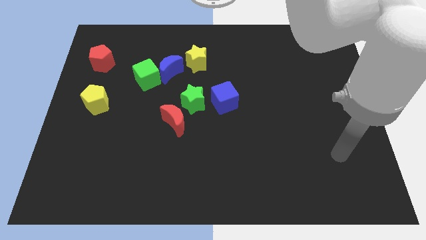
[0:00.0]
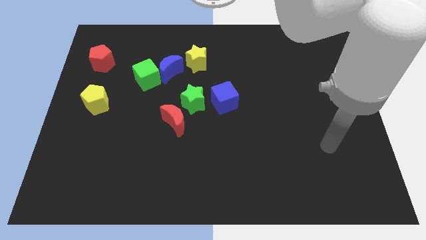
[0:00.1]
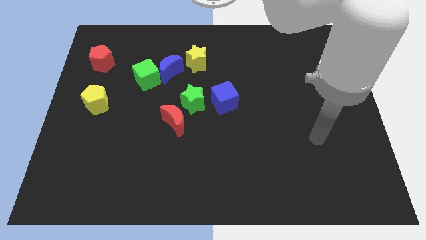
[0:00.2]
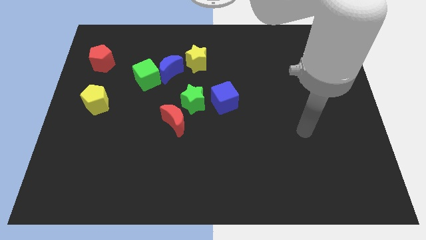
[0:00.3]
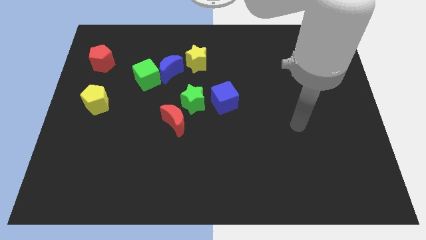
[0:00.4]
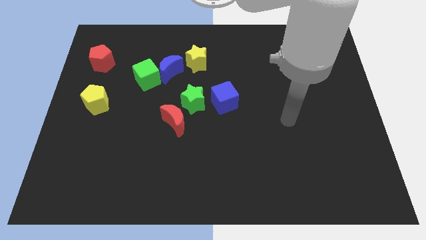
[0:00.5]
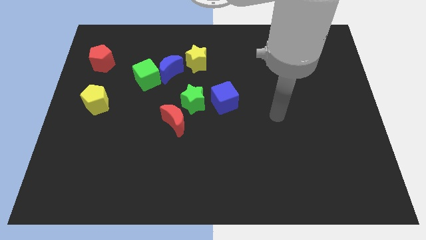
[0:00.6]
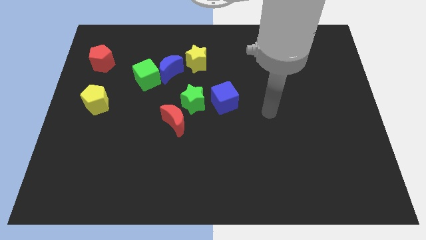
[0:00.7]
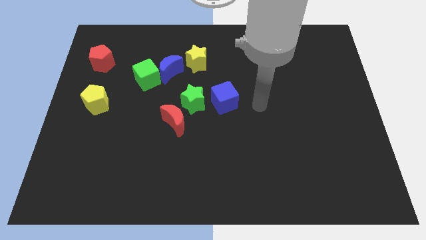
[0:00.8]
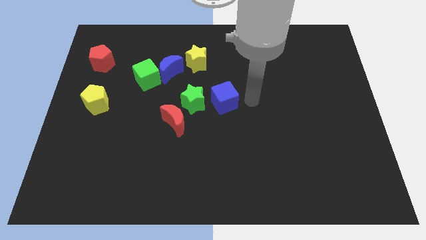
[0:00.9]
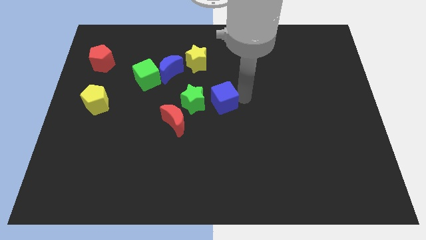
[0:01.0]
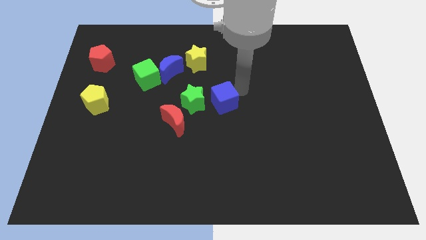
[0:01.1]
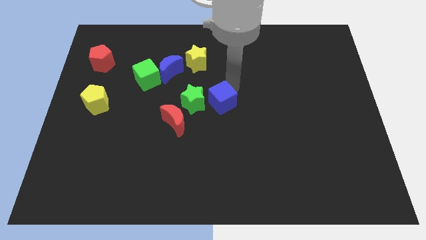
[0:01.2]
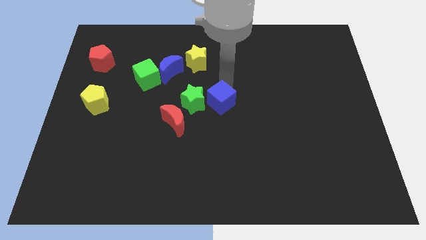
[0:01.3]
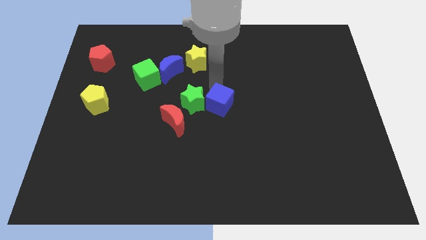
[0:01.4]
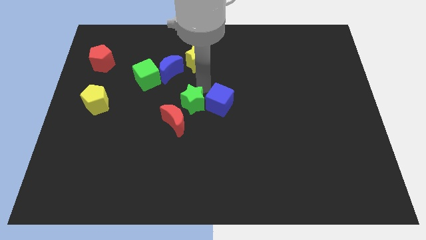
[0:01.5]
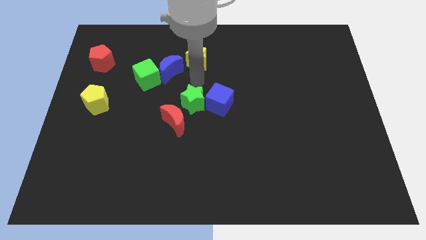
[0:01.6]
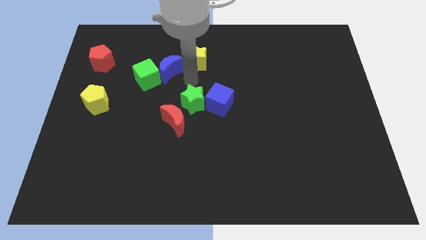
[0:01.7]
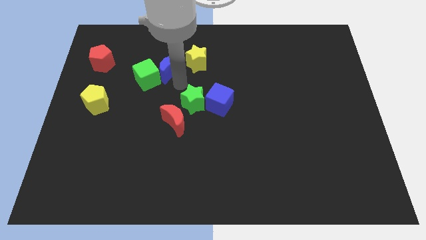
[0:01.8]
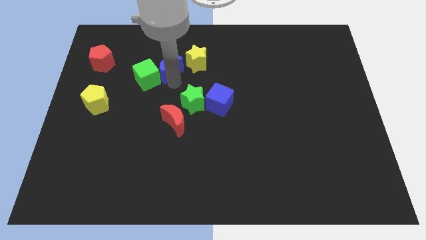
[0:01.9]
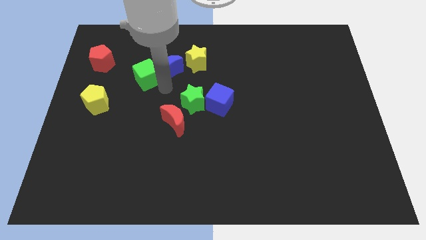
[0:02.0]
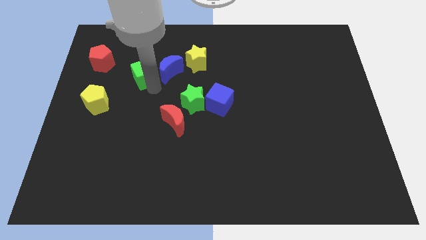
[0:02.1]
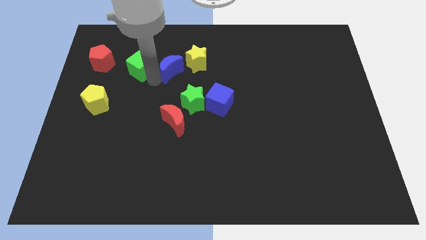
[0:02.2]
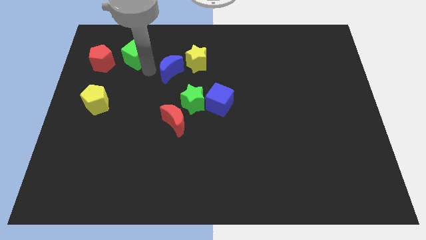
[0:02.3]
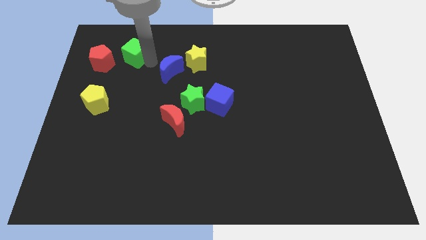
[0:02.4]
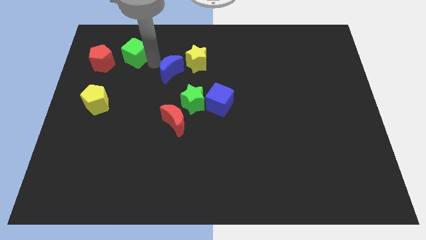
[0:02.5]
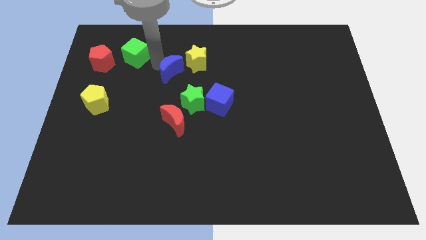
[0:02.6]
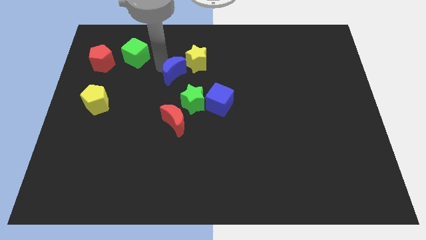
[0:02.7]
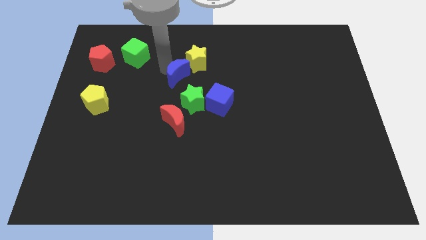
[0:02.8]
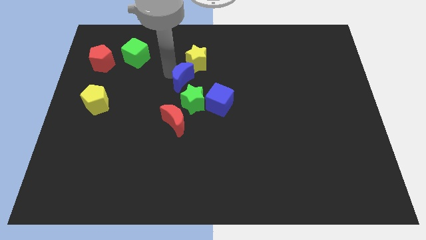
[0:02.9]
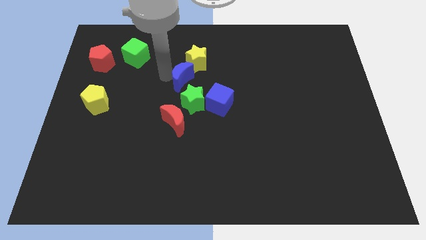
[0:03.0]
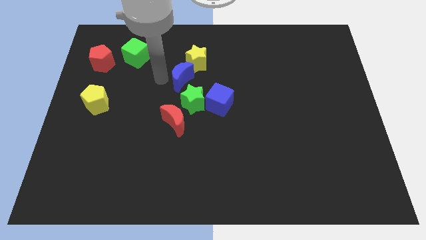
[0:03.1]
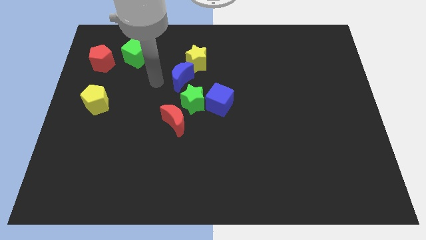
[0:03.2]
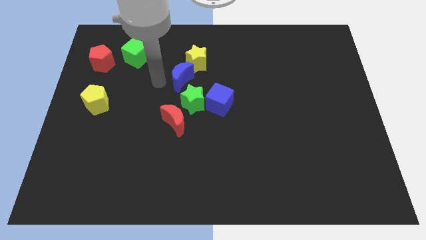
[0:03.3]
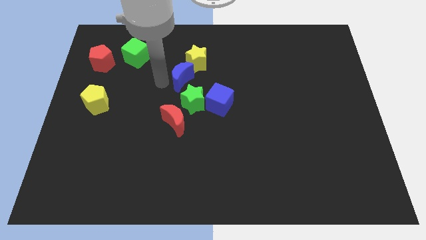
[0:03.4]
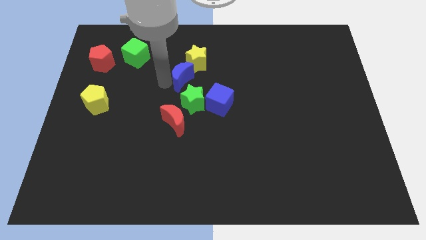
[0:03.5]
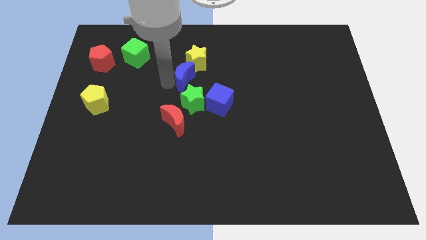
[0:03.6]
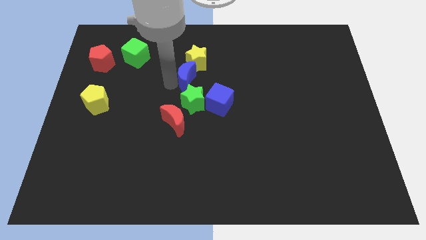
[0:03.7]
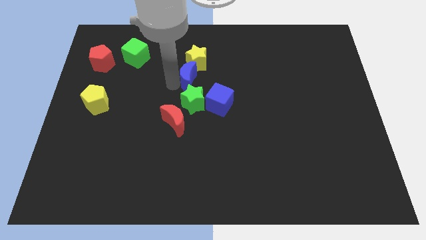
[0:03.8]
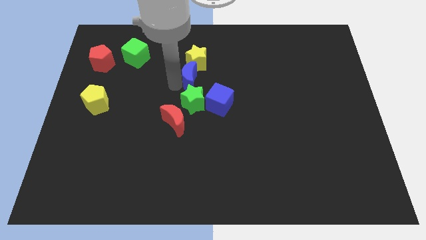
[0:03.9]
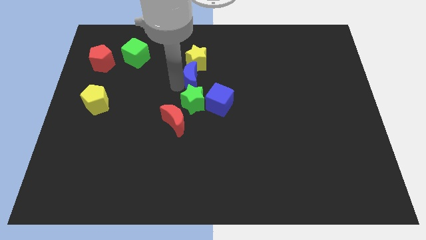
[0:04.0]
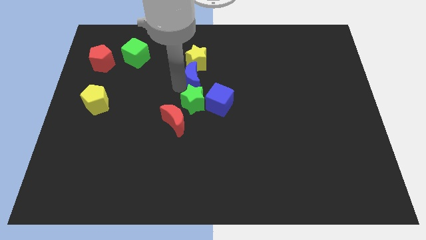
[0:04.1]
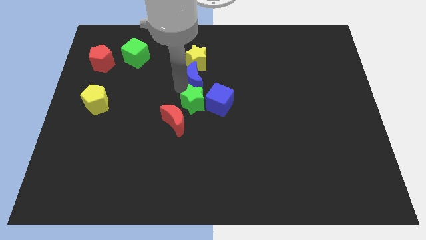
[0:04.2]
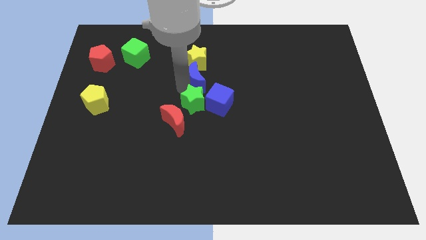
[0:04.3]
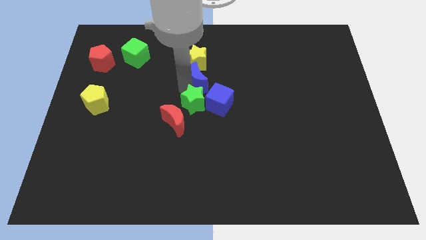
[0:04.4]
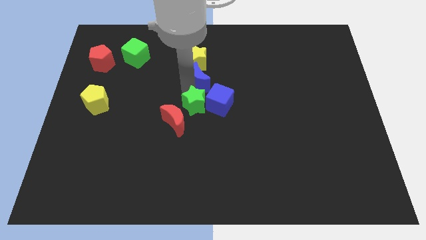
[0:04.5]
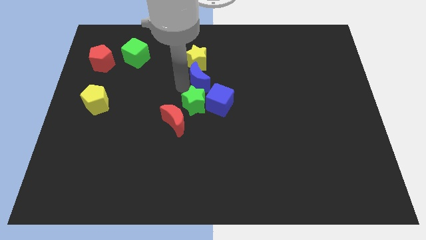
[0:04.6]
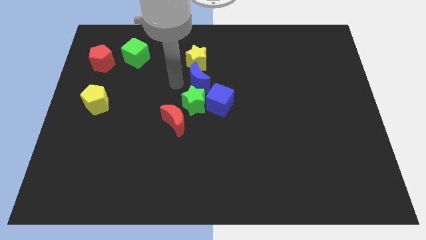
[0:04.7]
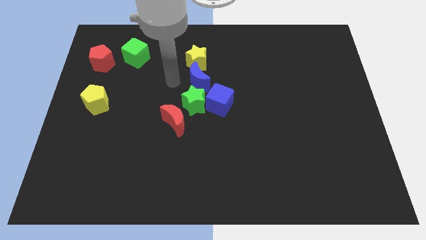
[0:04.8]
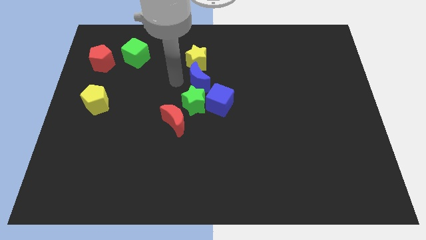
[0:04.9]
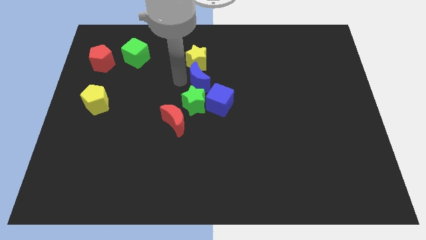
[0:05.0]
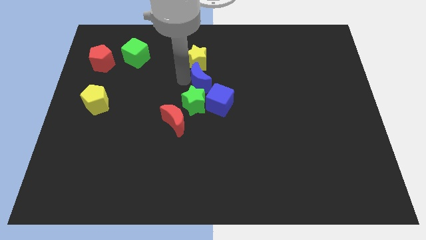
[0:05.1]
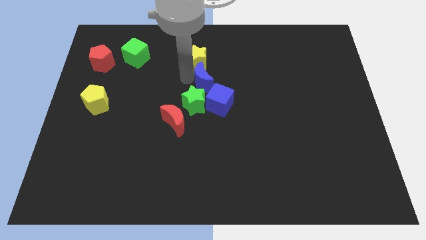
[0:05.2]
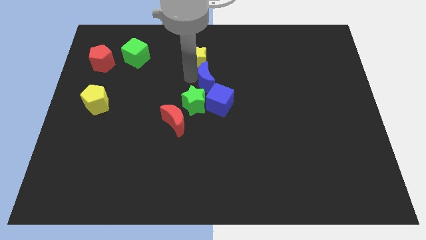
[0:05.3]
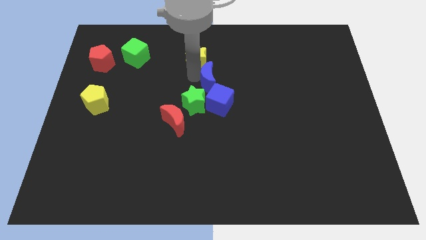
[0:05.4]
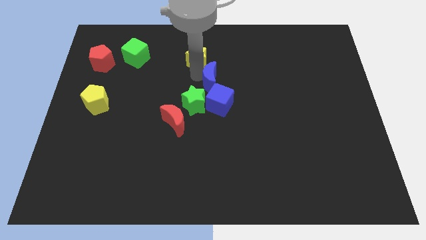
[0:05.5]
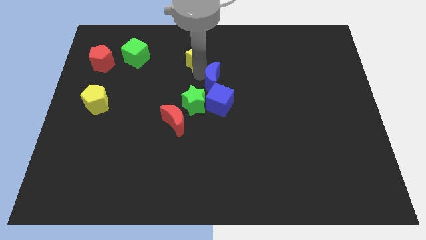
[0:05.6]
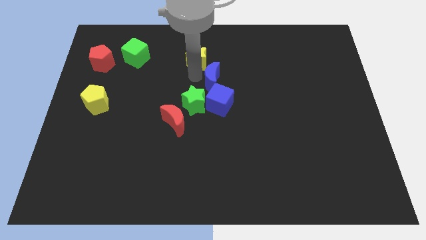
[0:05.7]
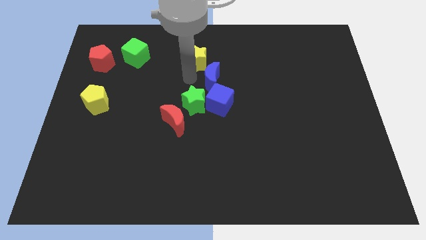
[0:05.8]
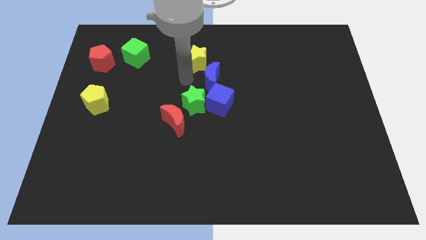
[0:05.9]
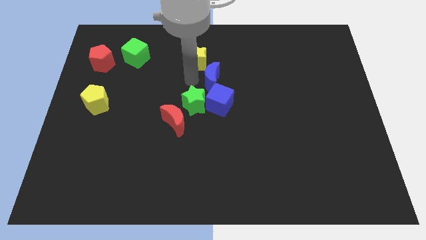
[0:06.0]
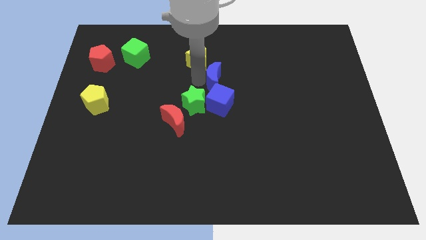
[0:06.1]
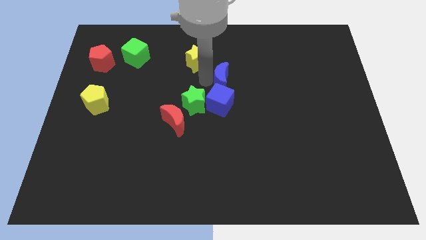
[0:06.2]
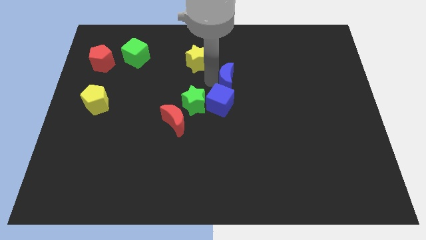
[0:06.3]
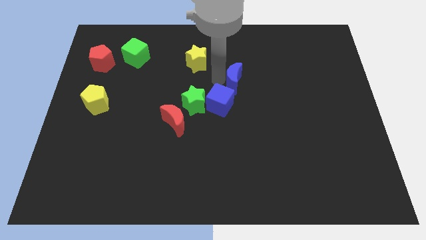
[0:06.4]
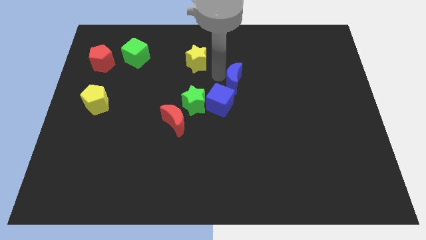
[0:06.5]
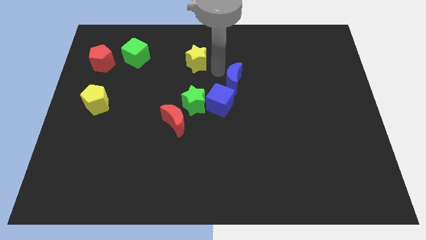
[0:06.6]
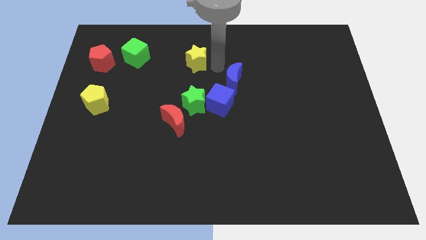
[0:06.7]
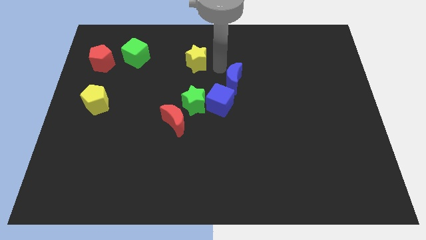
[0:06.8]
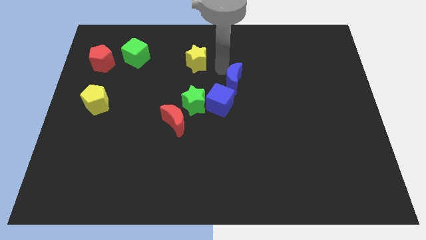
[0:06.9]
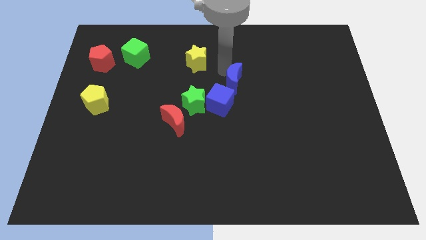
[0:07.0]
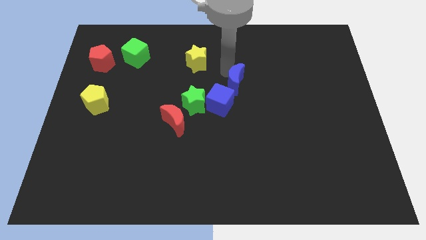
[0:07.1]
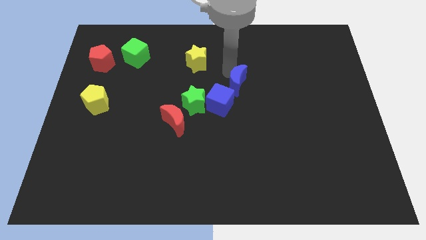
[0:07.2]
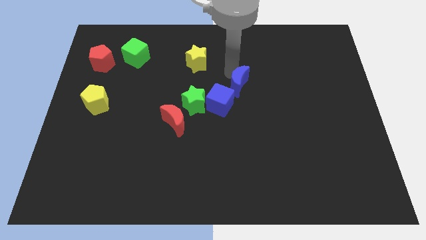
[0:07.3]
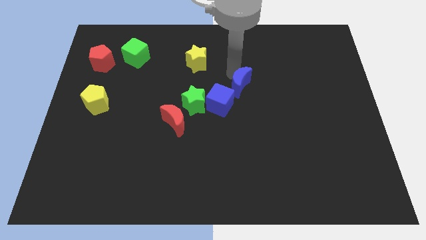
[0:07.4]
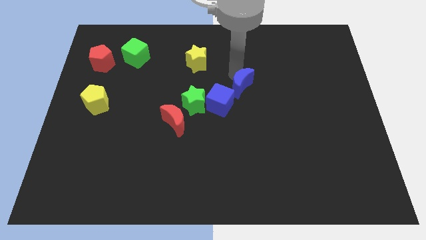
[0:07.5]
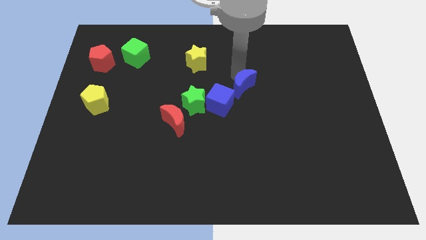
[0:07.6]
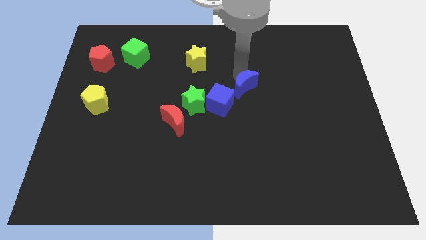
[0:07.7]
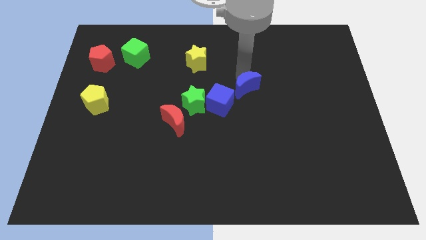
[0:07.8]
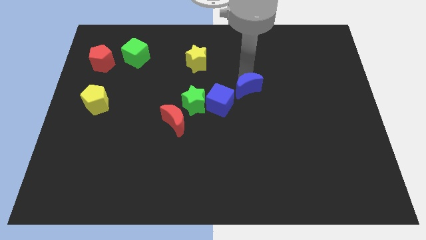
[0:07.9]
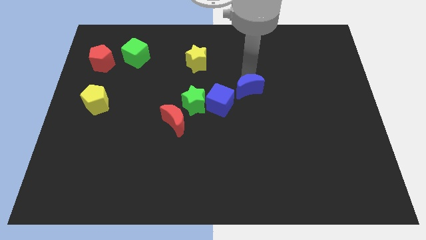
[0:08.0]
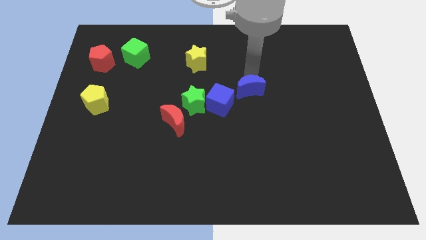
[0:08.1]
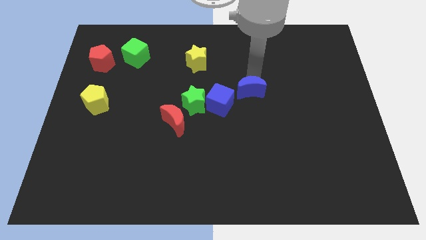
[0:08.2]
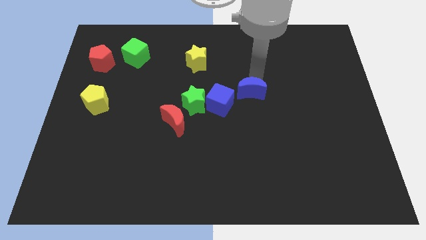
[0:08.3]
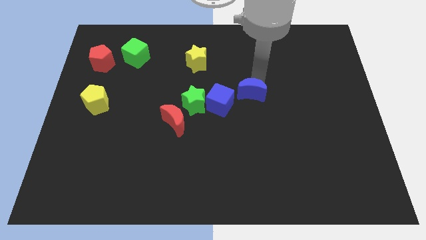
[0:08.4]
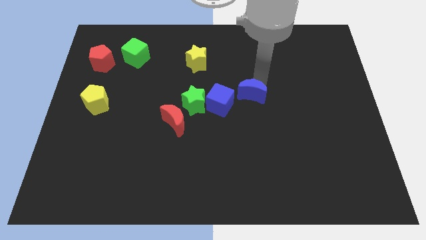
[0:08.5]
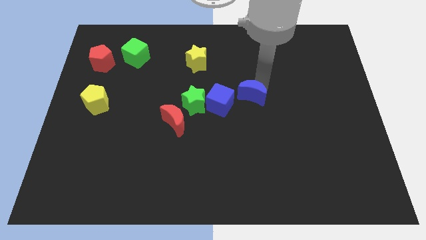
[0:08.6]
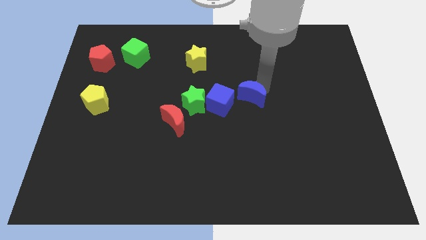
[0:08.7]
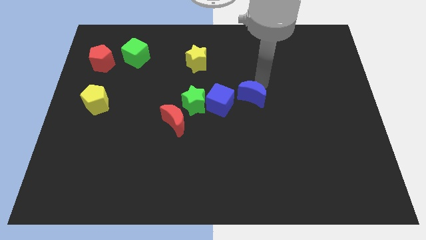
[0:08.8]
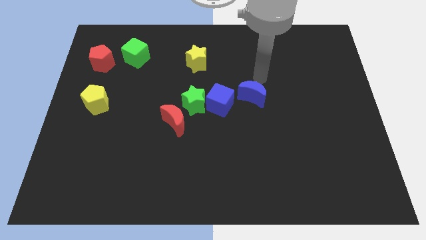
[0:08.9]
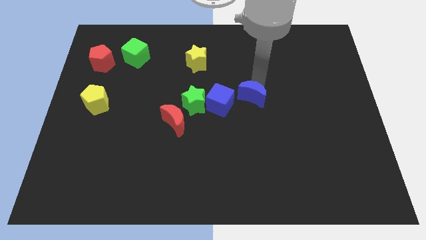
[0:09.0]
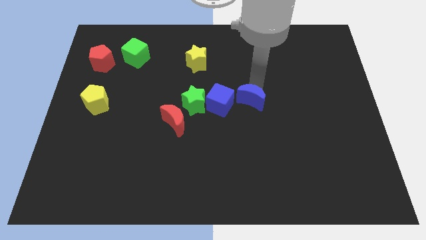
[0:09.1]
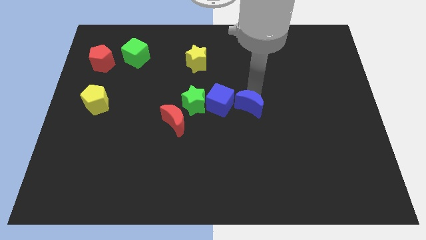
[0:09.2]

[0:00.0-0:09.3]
move the blue moon diagonally down and to the right of the blue cube
